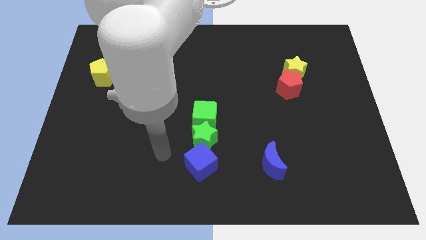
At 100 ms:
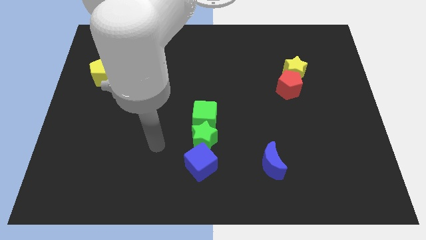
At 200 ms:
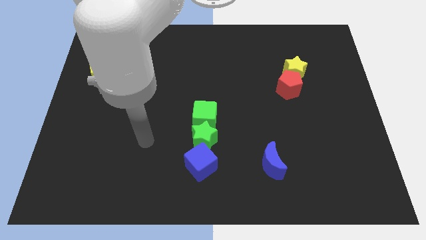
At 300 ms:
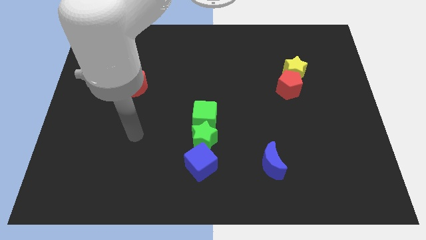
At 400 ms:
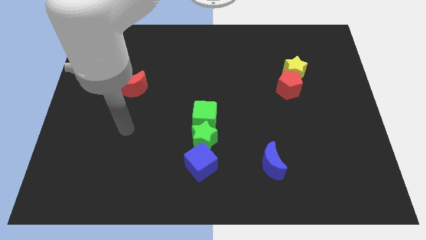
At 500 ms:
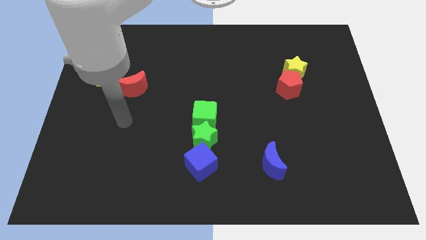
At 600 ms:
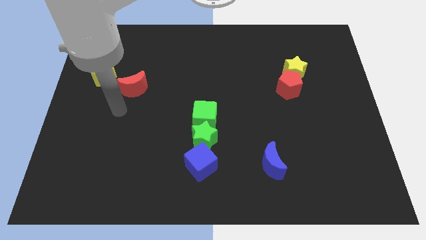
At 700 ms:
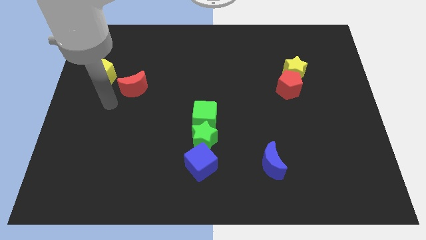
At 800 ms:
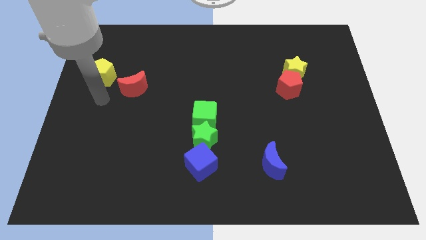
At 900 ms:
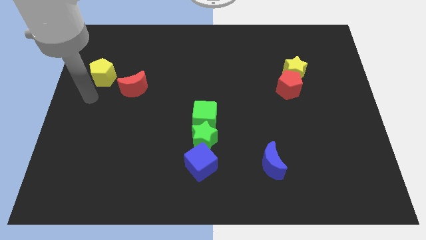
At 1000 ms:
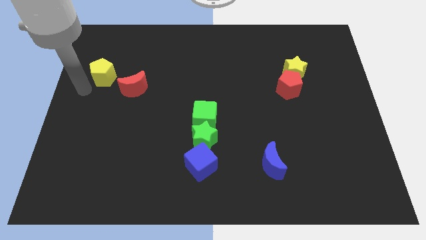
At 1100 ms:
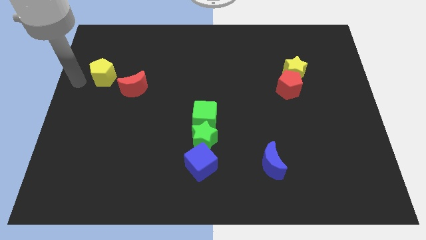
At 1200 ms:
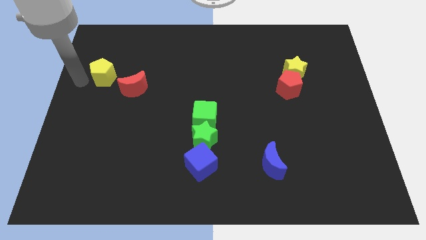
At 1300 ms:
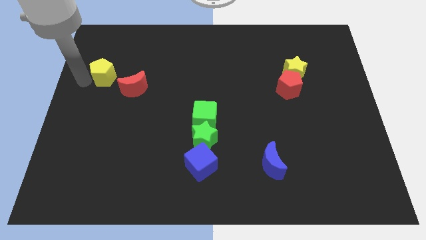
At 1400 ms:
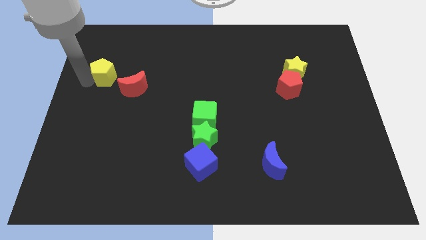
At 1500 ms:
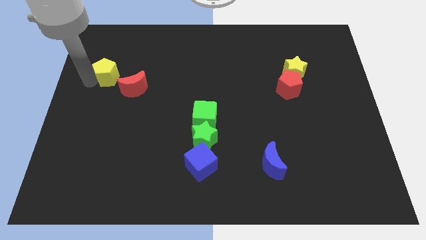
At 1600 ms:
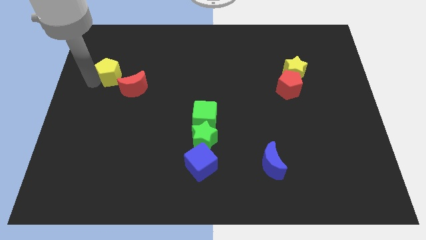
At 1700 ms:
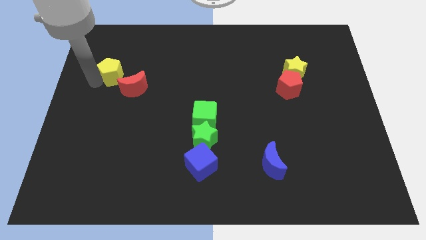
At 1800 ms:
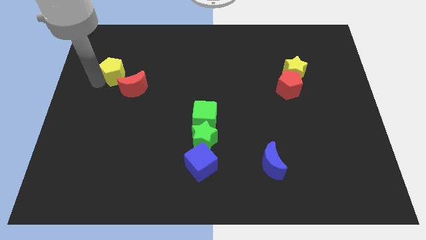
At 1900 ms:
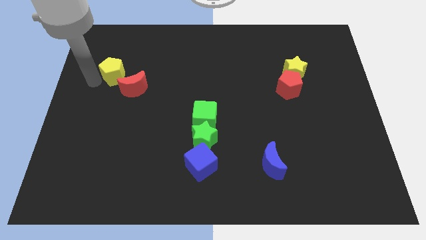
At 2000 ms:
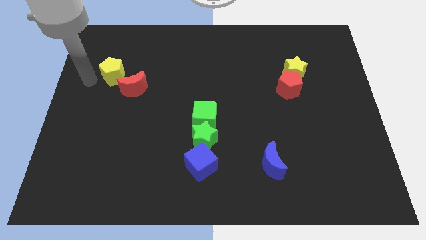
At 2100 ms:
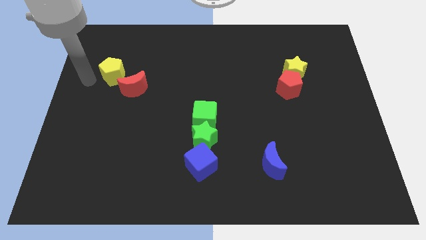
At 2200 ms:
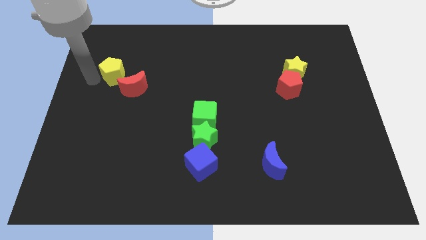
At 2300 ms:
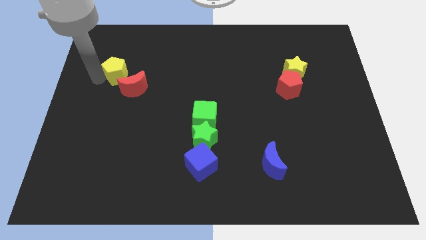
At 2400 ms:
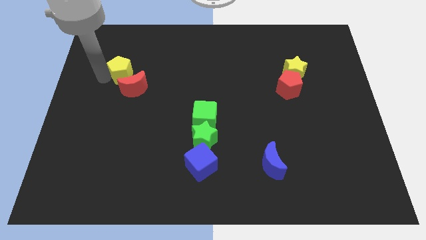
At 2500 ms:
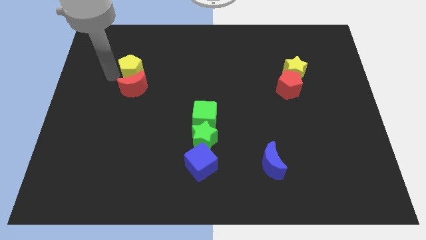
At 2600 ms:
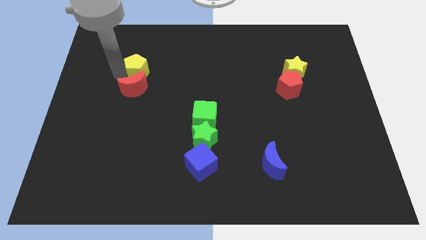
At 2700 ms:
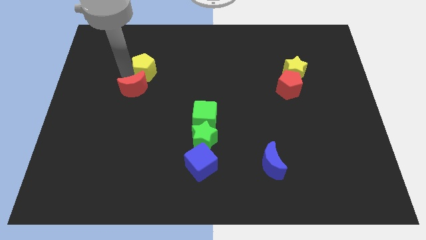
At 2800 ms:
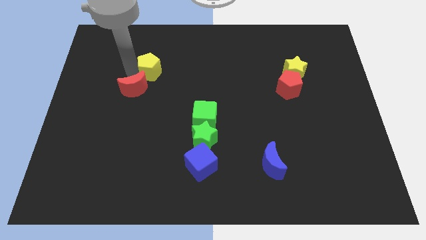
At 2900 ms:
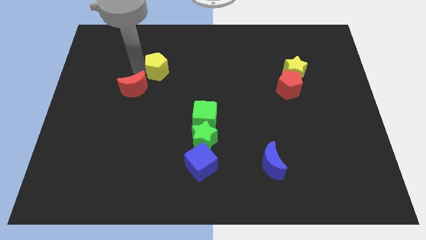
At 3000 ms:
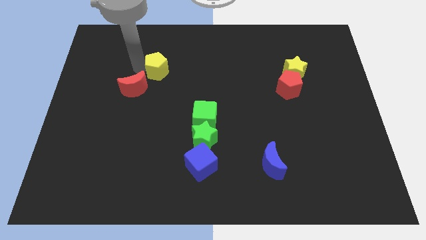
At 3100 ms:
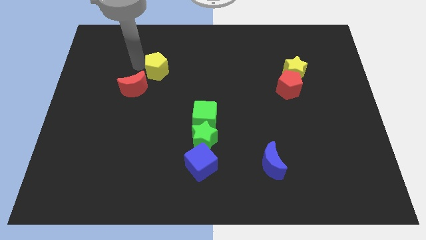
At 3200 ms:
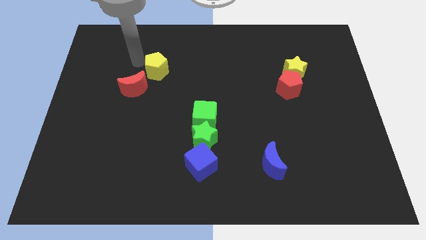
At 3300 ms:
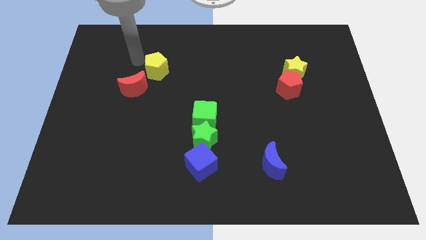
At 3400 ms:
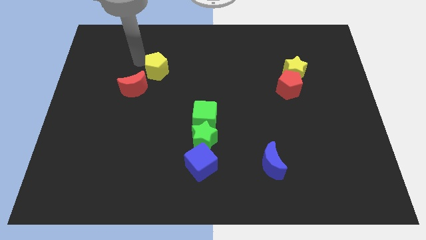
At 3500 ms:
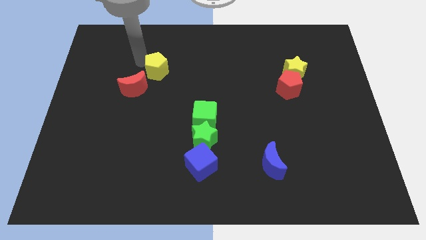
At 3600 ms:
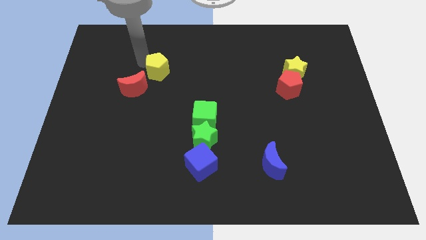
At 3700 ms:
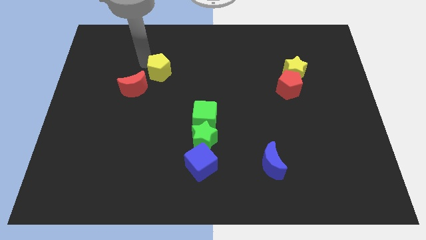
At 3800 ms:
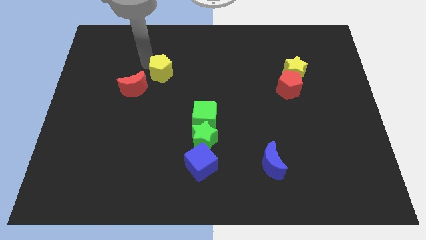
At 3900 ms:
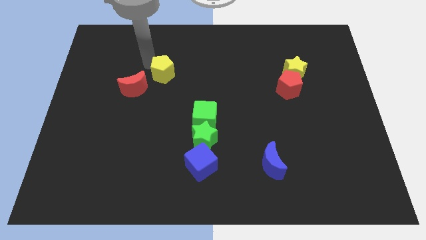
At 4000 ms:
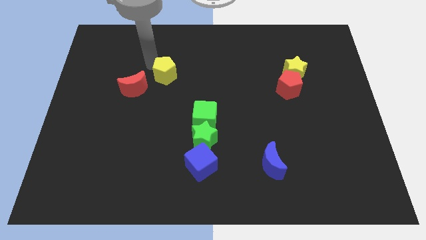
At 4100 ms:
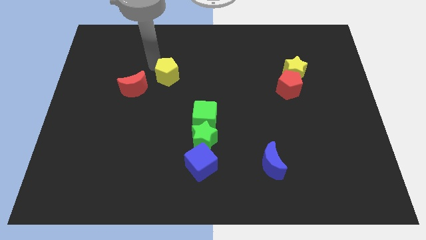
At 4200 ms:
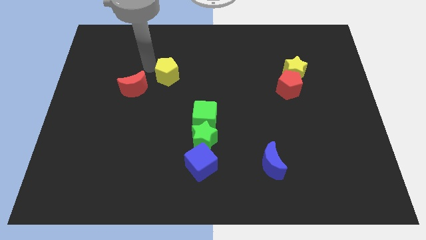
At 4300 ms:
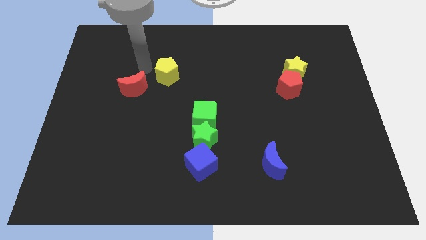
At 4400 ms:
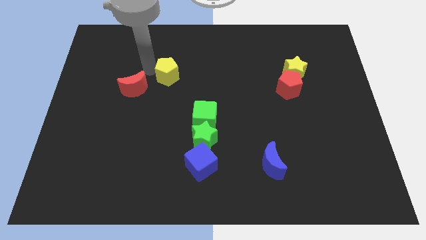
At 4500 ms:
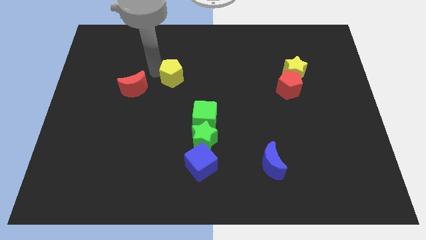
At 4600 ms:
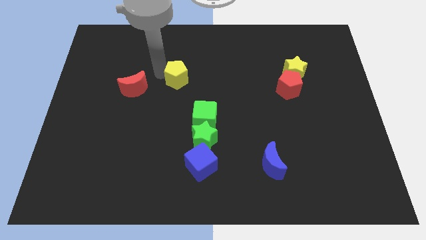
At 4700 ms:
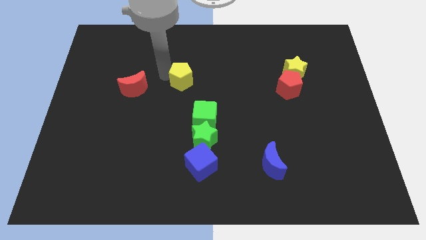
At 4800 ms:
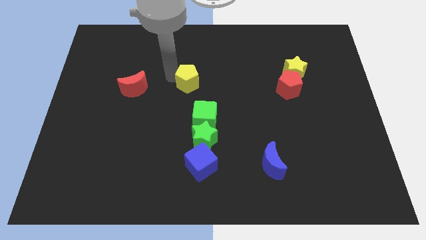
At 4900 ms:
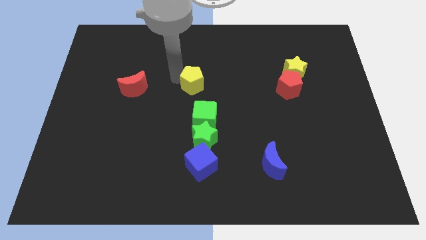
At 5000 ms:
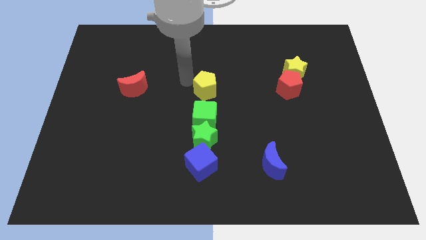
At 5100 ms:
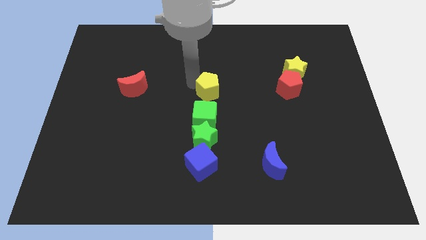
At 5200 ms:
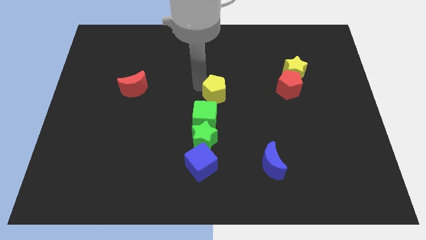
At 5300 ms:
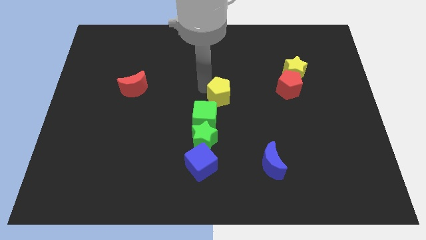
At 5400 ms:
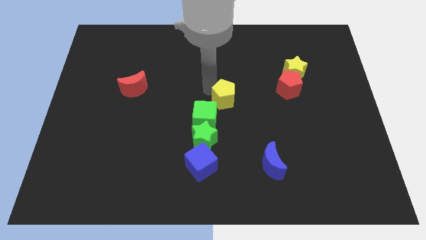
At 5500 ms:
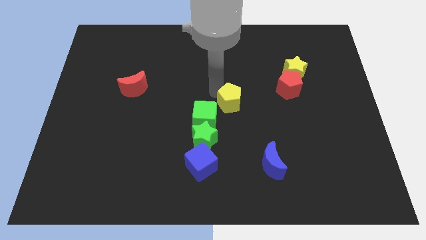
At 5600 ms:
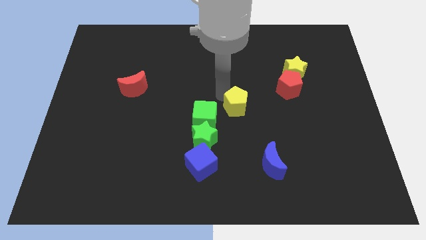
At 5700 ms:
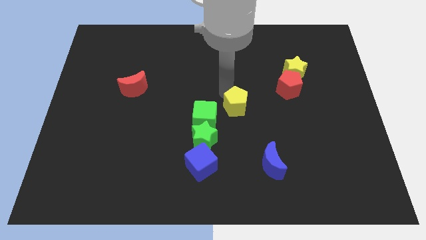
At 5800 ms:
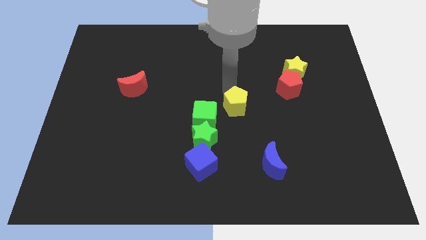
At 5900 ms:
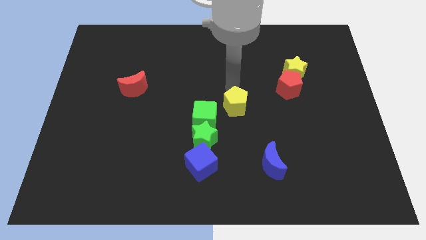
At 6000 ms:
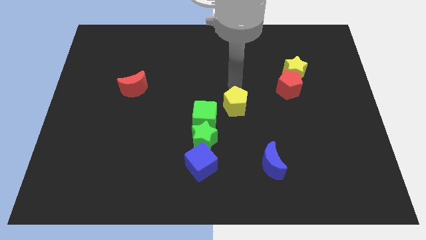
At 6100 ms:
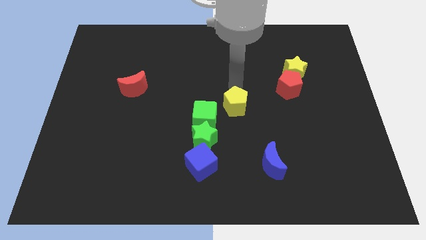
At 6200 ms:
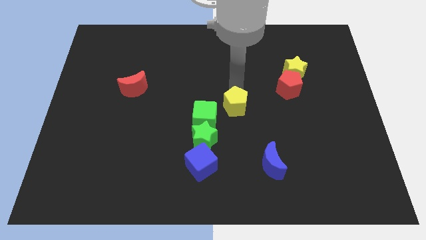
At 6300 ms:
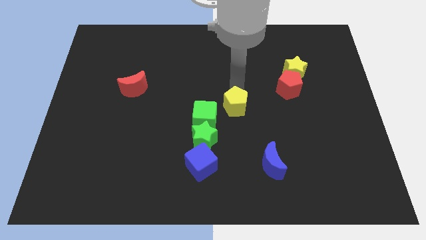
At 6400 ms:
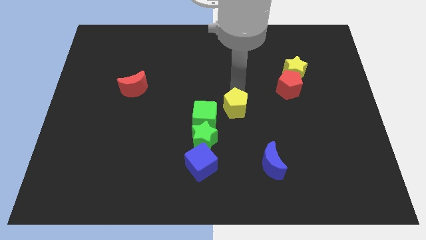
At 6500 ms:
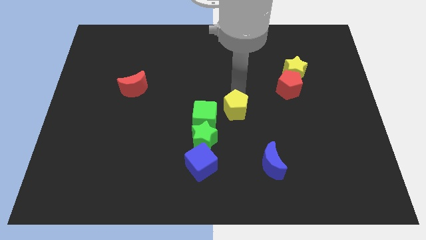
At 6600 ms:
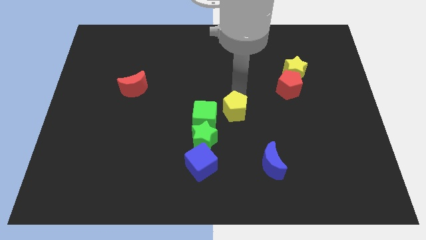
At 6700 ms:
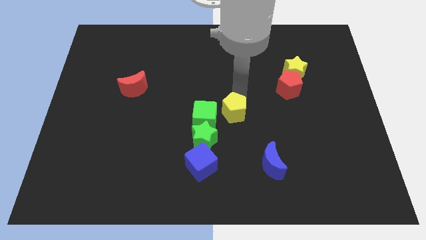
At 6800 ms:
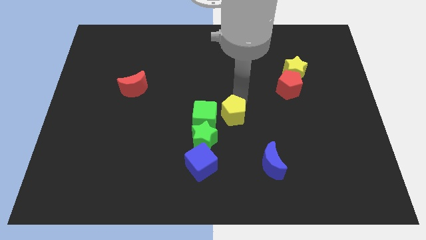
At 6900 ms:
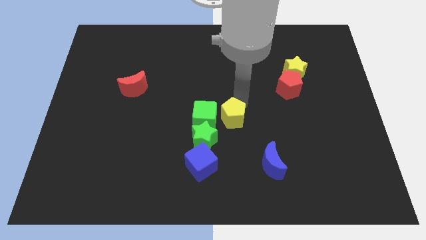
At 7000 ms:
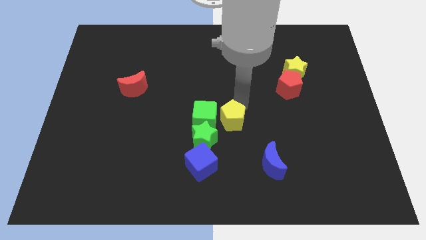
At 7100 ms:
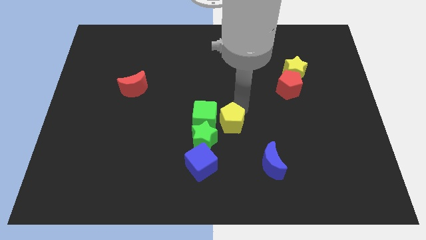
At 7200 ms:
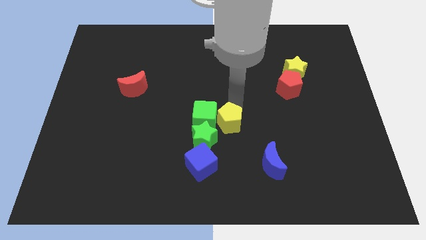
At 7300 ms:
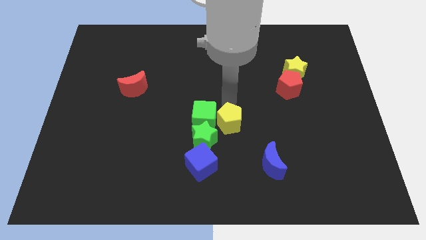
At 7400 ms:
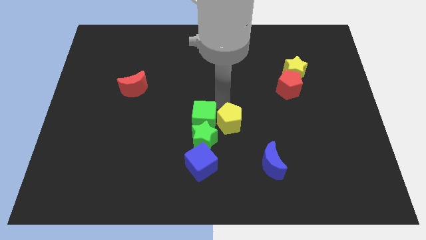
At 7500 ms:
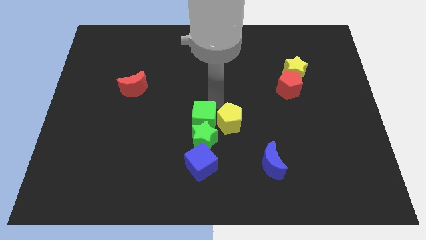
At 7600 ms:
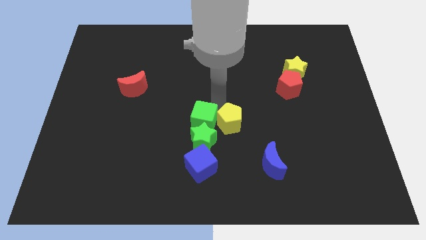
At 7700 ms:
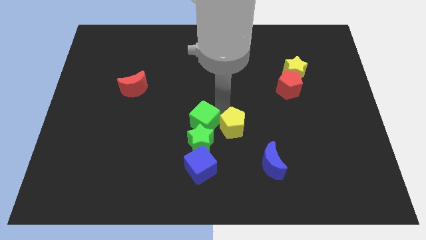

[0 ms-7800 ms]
slide the yellow pentagon to the top left side of the blue moon
